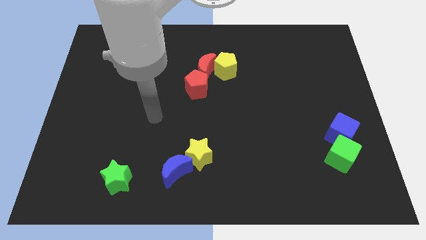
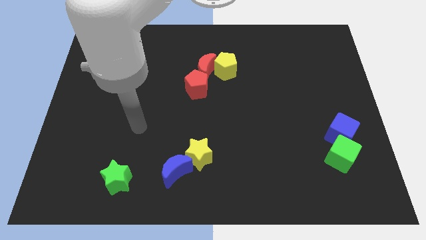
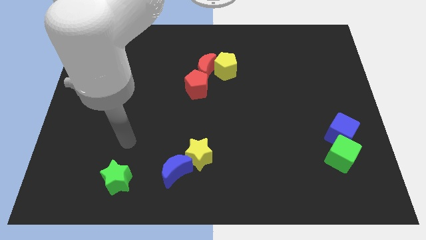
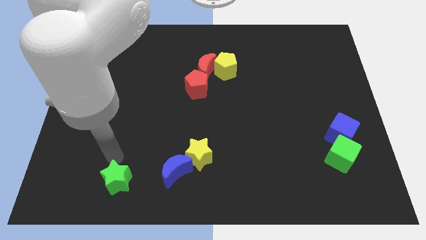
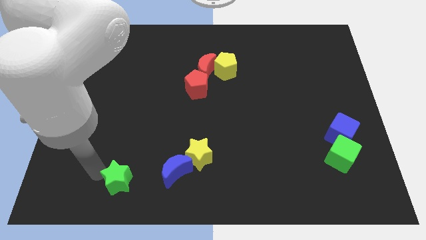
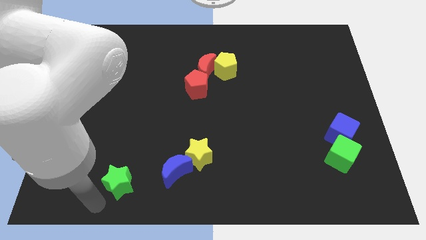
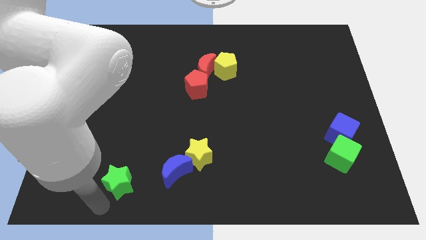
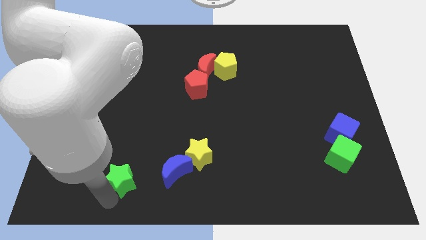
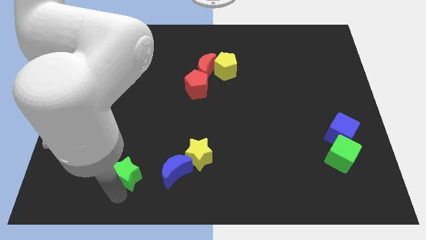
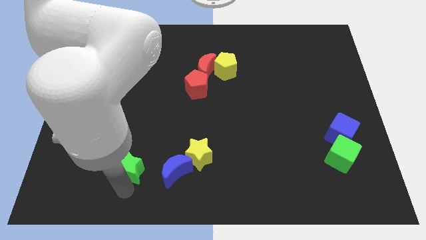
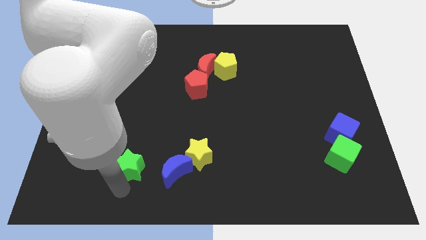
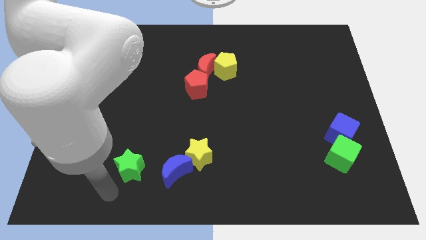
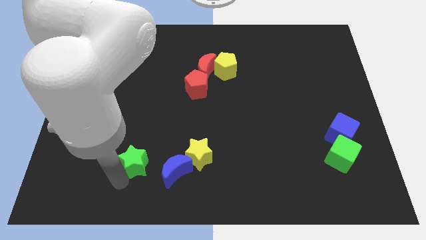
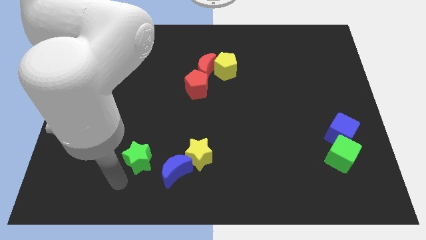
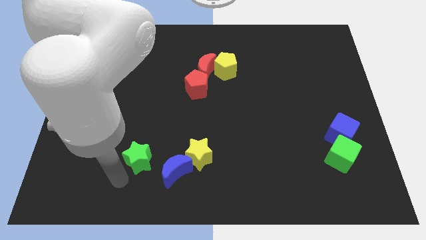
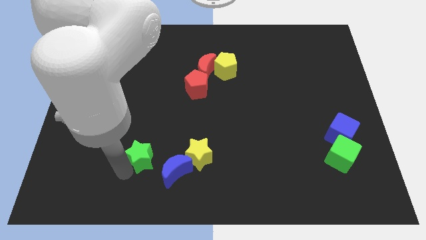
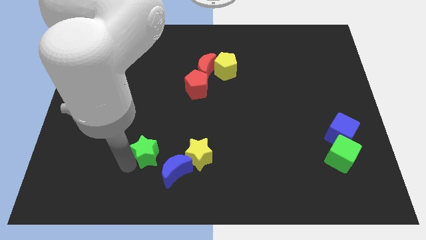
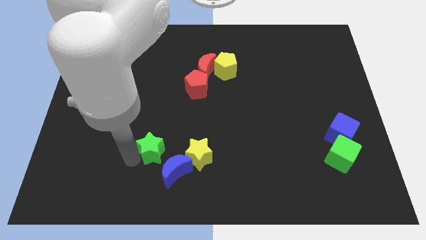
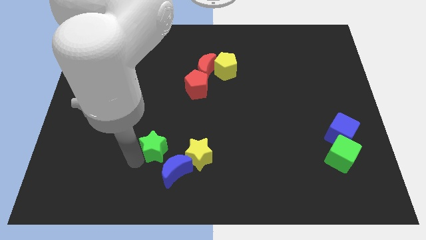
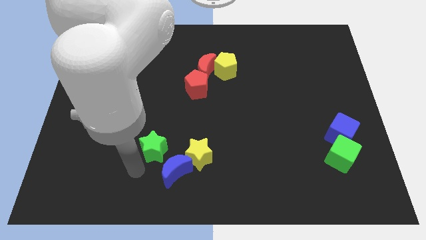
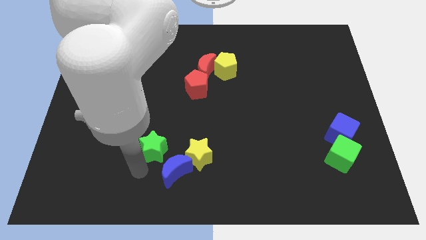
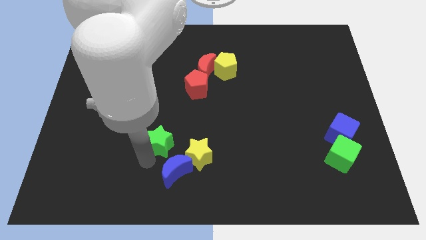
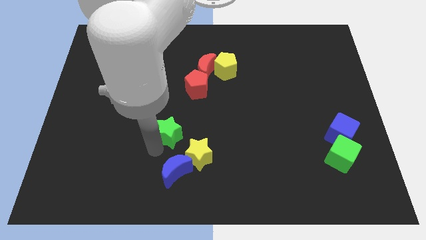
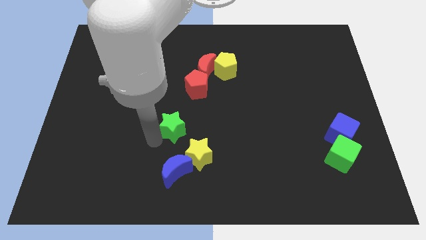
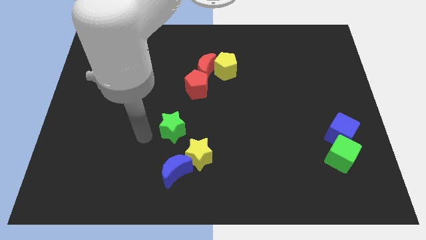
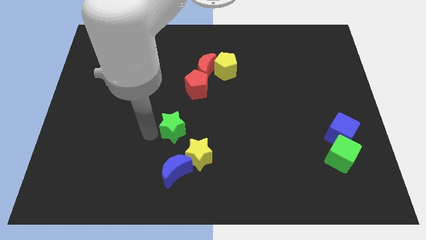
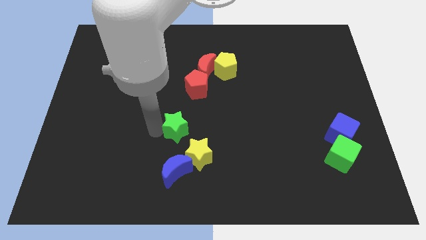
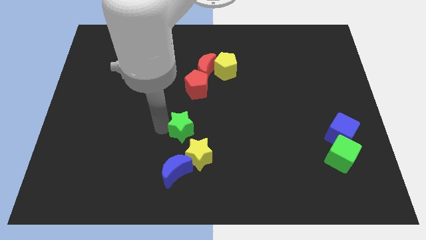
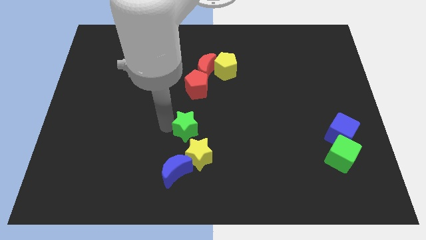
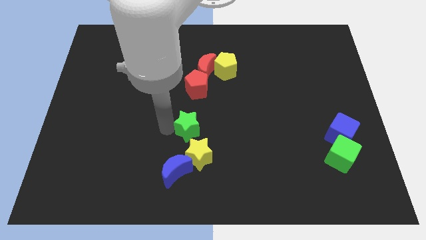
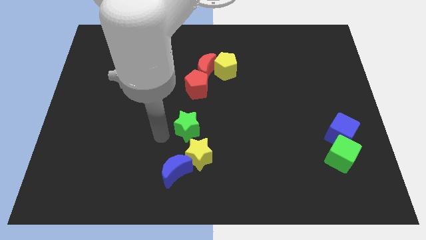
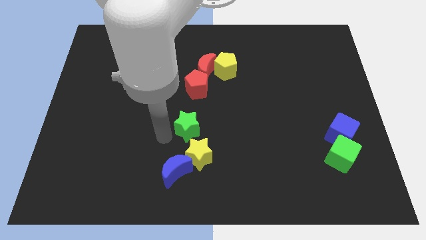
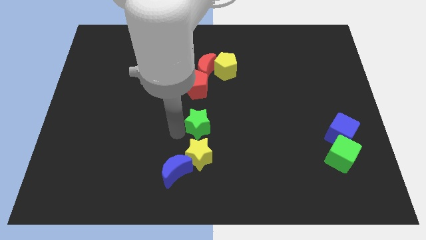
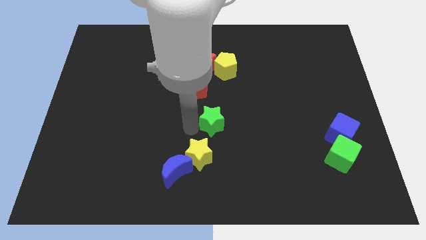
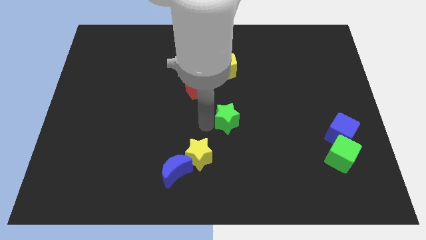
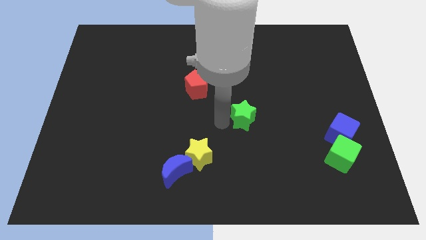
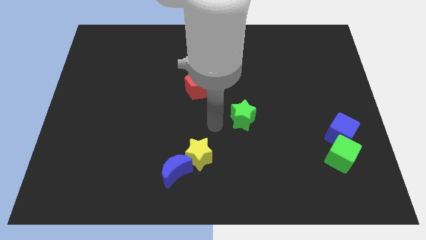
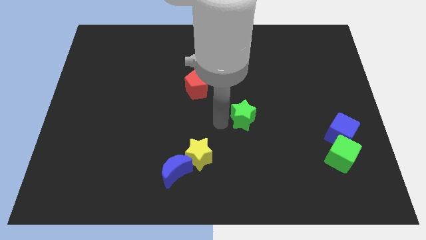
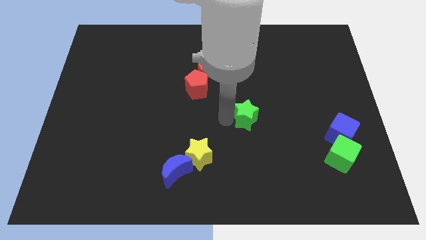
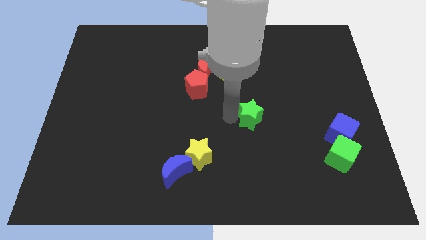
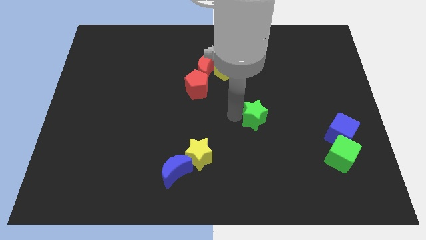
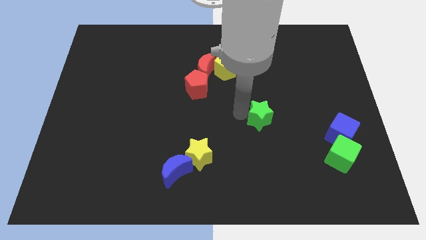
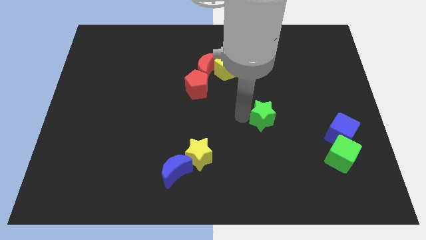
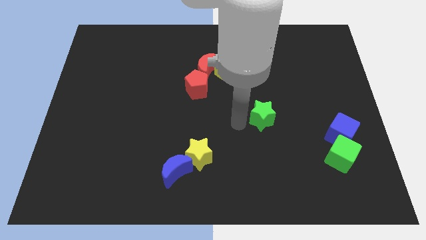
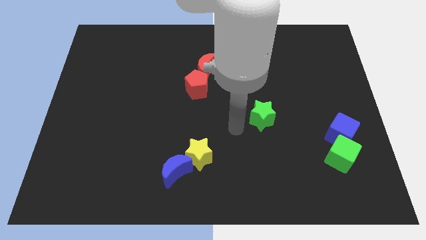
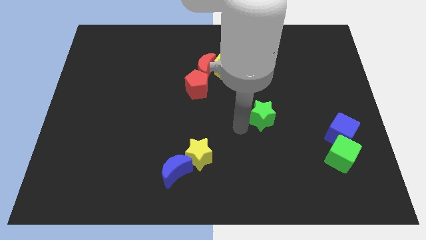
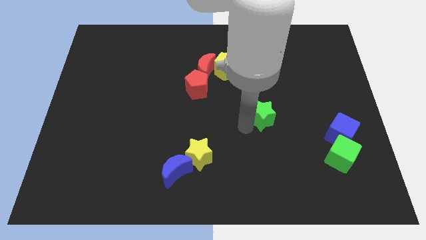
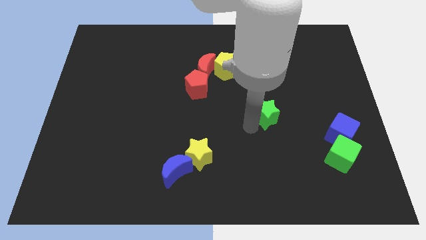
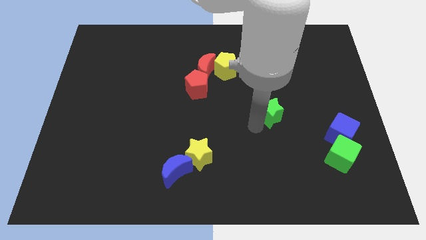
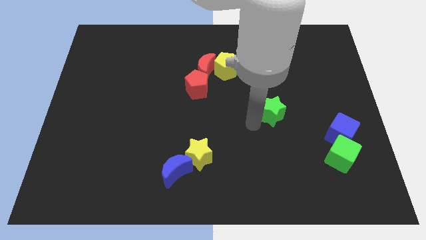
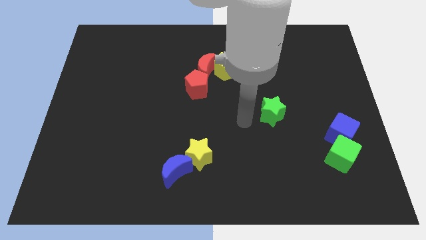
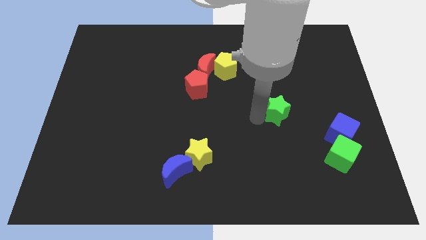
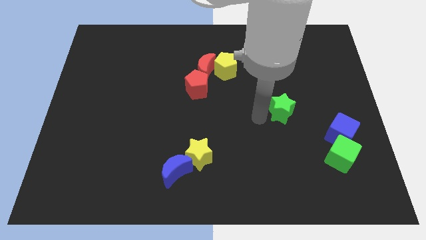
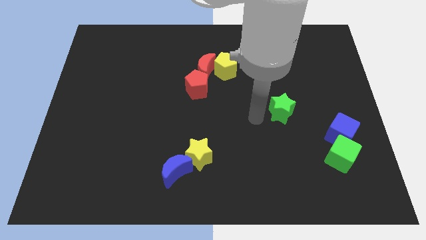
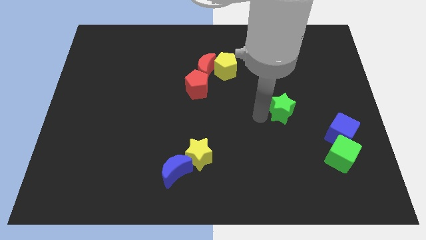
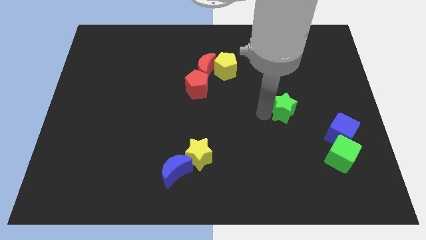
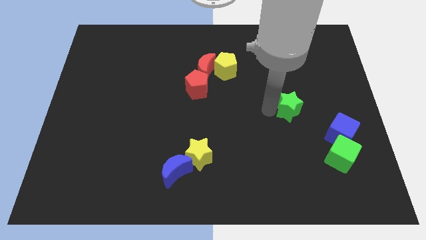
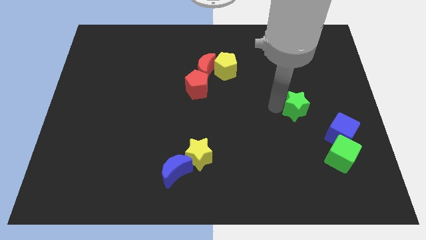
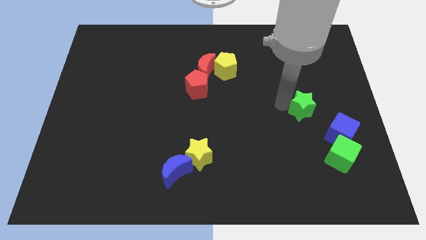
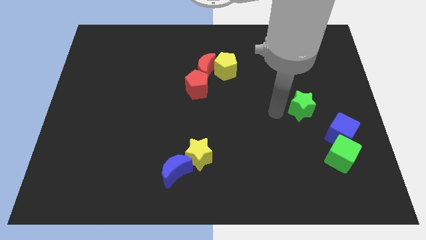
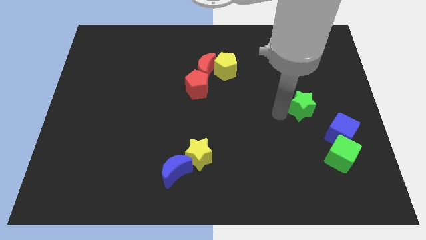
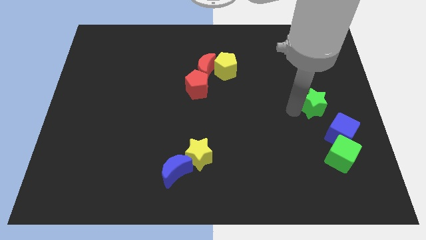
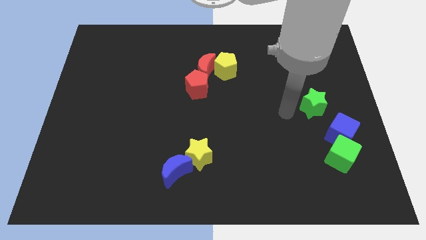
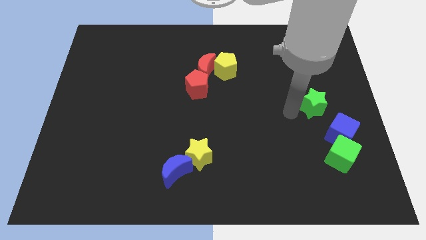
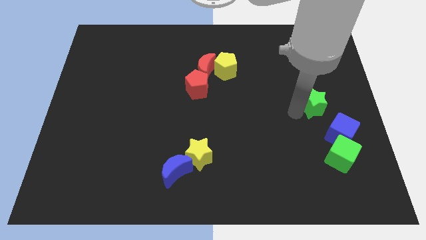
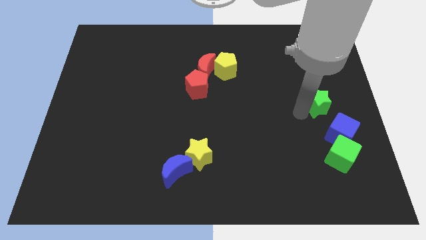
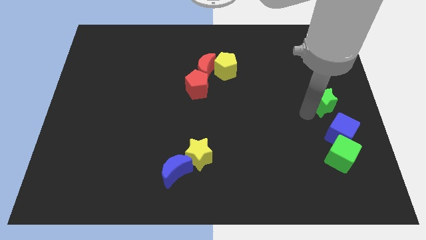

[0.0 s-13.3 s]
push the green star to the center right
